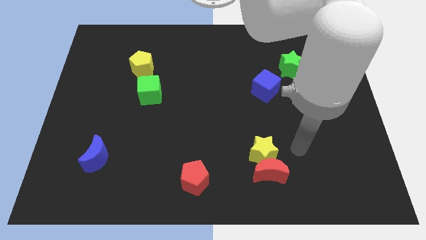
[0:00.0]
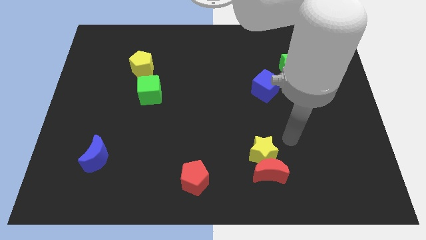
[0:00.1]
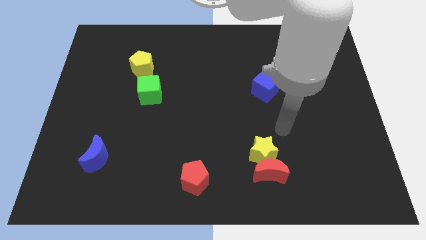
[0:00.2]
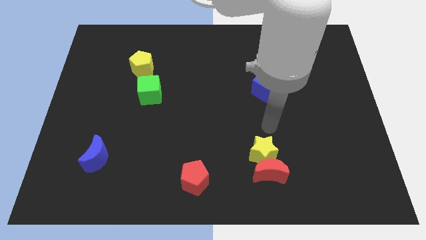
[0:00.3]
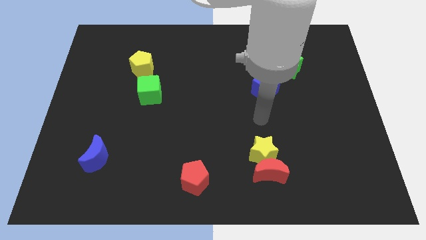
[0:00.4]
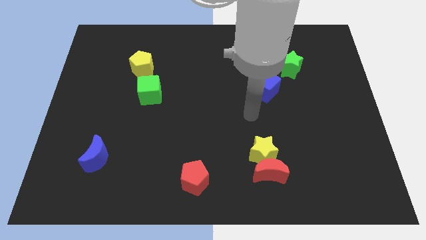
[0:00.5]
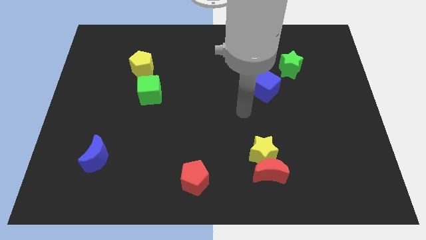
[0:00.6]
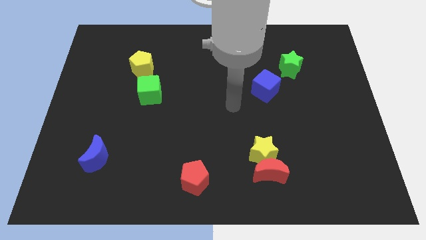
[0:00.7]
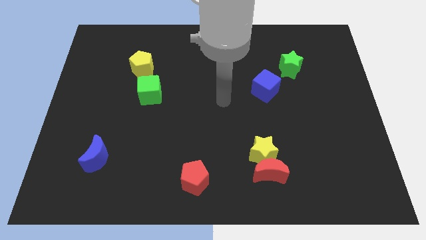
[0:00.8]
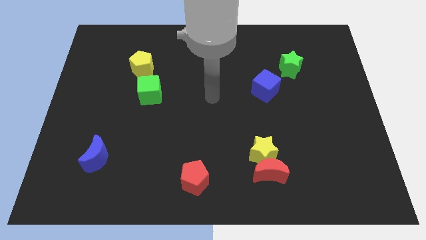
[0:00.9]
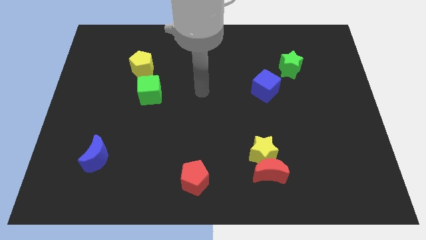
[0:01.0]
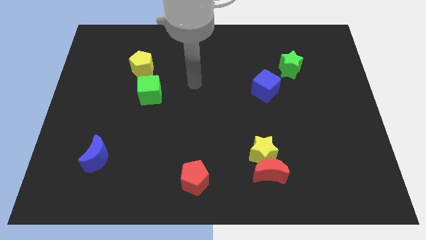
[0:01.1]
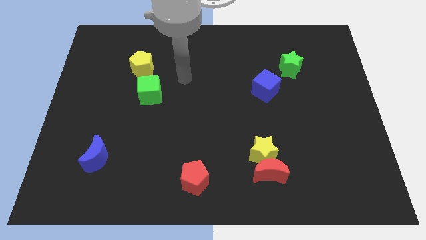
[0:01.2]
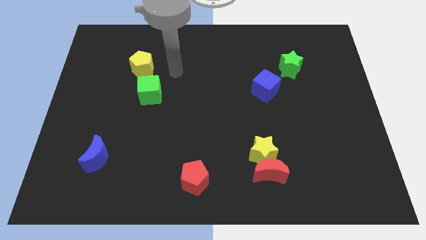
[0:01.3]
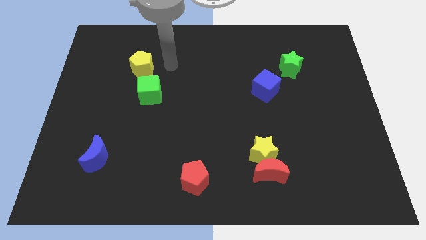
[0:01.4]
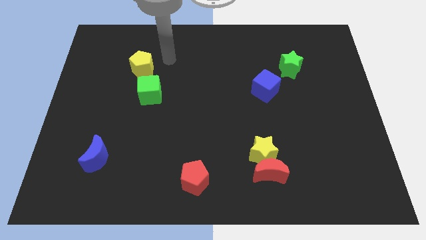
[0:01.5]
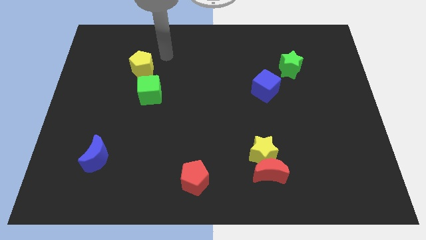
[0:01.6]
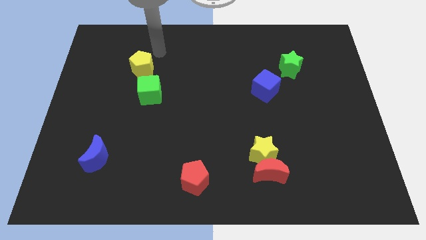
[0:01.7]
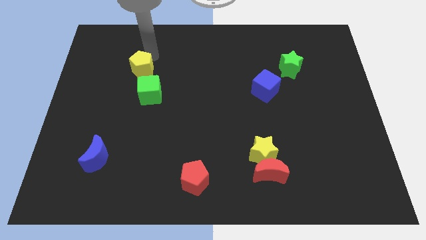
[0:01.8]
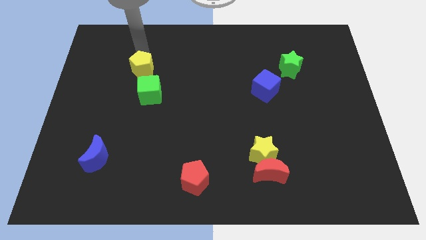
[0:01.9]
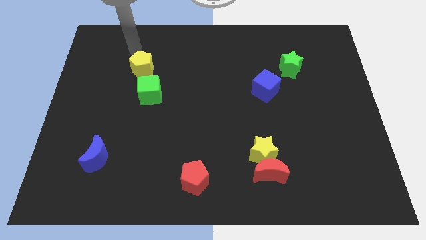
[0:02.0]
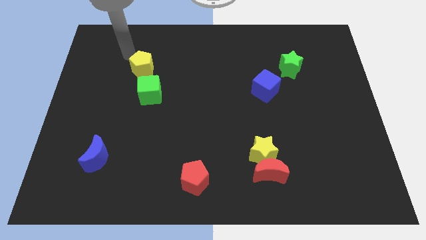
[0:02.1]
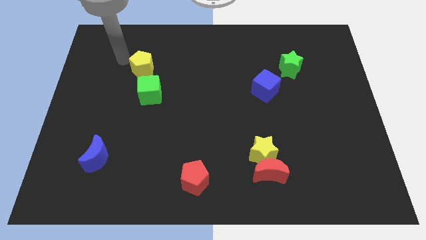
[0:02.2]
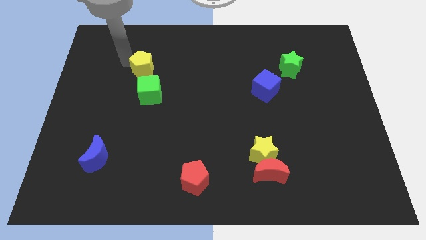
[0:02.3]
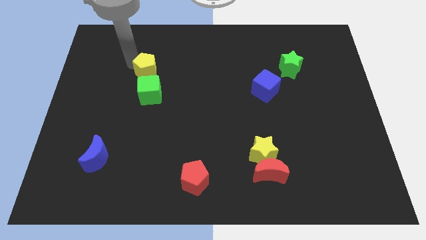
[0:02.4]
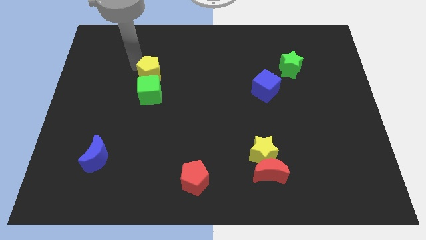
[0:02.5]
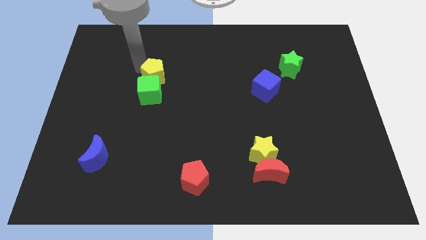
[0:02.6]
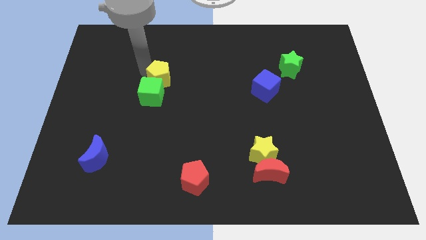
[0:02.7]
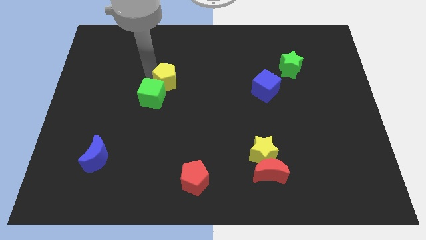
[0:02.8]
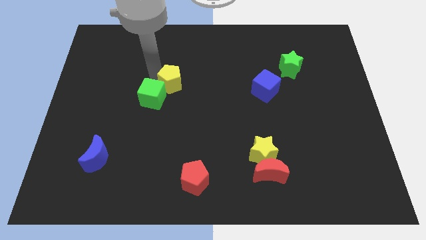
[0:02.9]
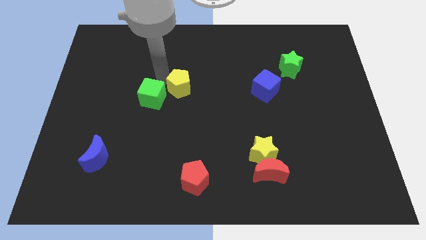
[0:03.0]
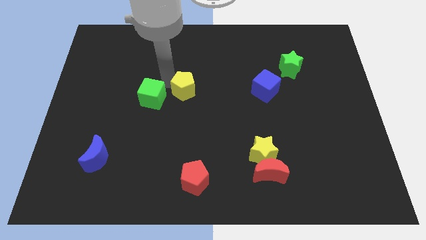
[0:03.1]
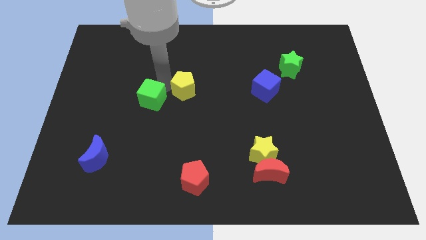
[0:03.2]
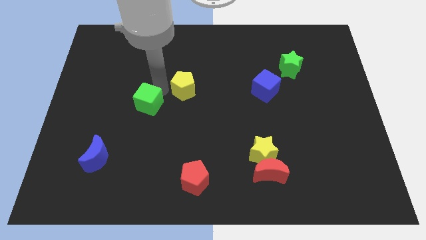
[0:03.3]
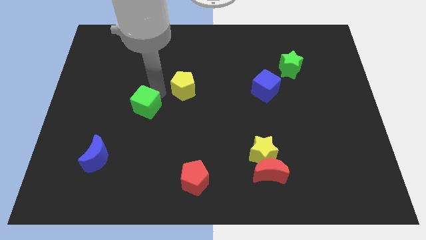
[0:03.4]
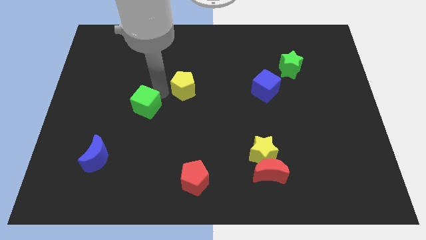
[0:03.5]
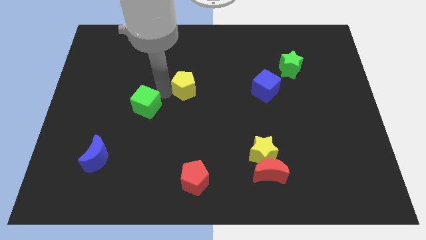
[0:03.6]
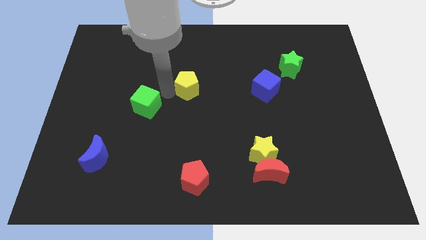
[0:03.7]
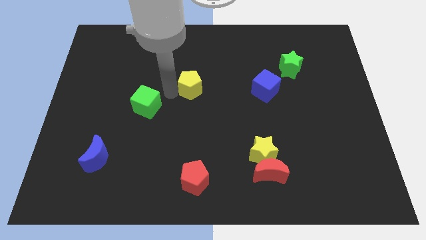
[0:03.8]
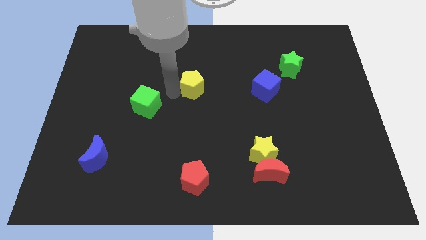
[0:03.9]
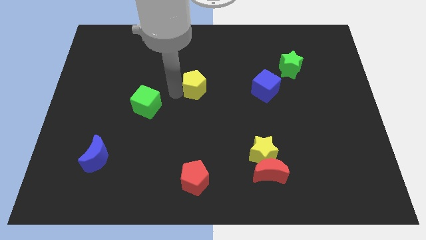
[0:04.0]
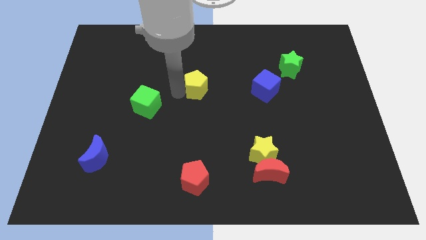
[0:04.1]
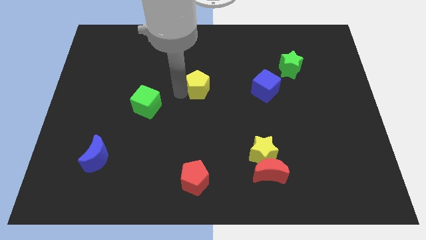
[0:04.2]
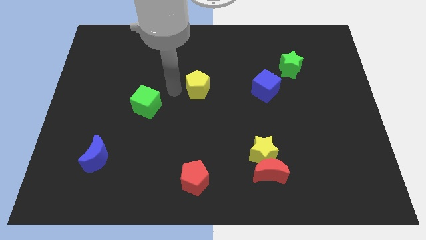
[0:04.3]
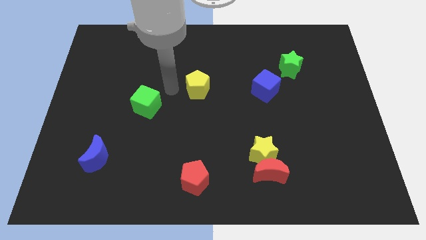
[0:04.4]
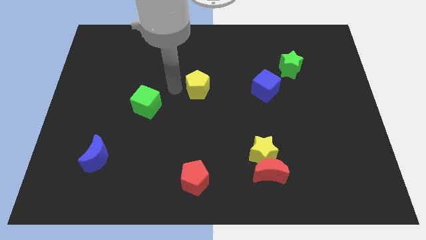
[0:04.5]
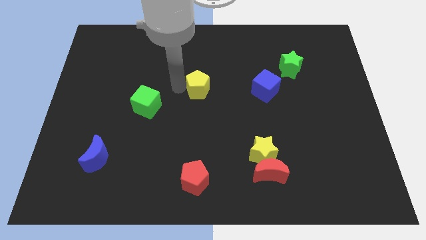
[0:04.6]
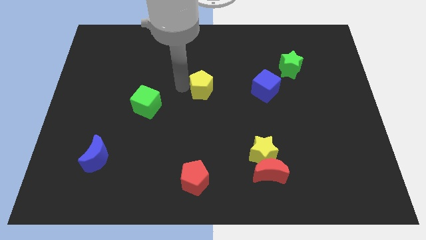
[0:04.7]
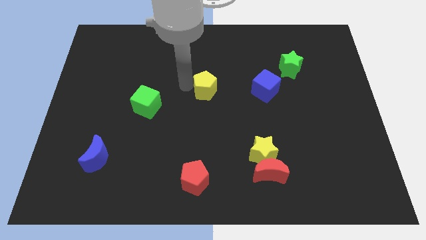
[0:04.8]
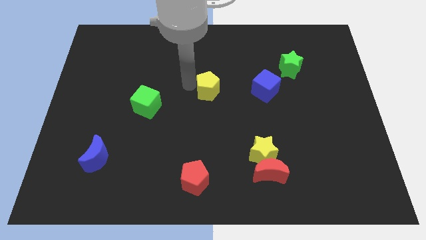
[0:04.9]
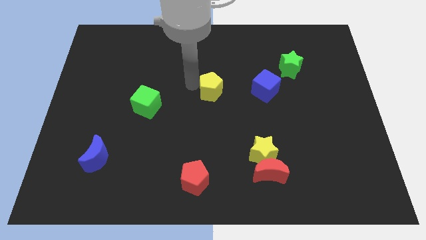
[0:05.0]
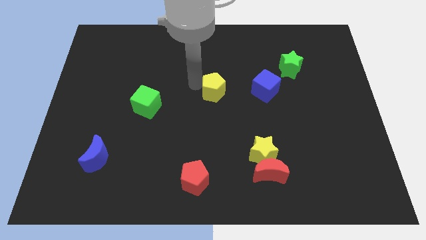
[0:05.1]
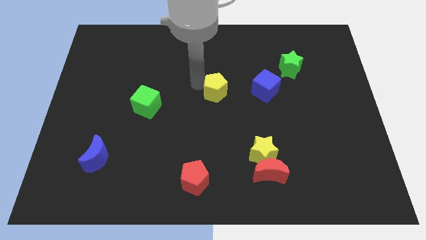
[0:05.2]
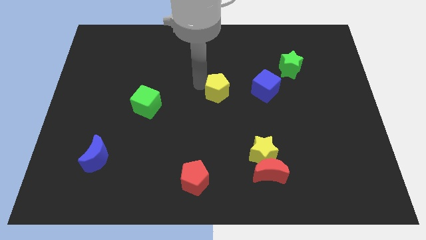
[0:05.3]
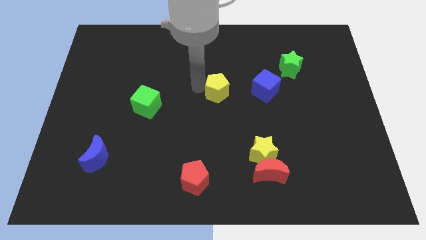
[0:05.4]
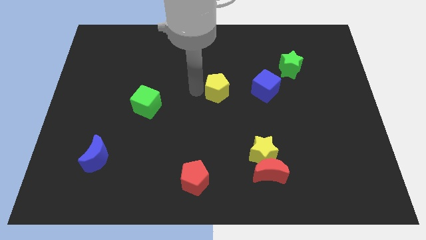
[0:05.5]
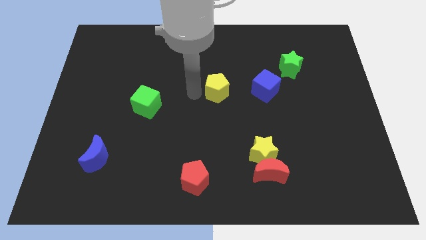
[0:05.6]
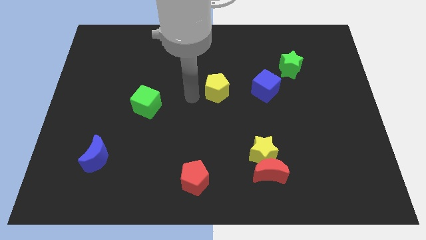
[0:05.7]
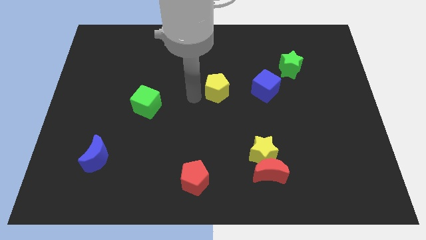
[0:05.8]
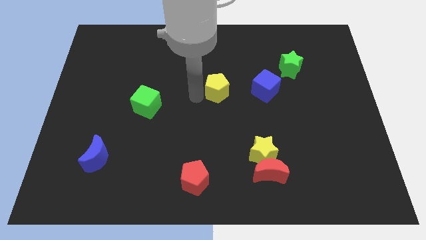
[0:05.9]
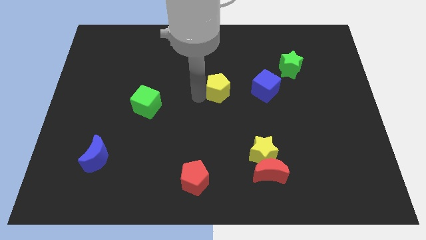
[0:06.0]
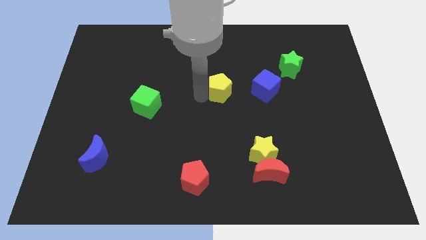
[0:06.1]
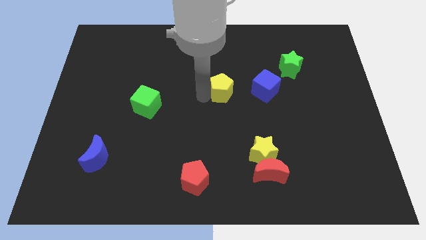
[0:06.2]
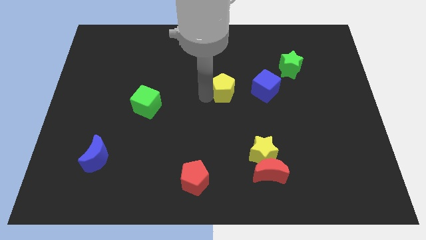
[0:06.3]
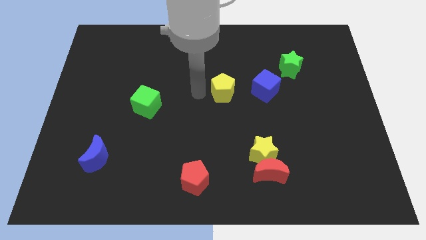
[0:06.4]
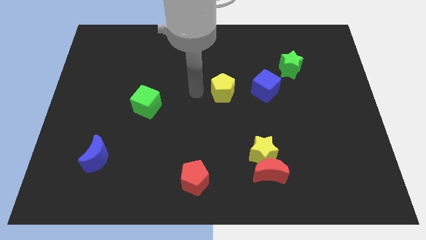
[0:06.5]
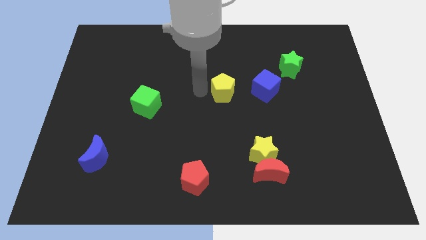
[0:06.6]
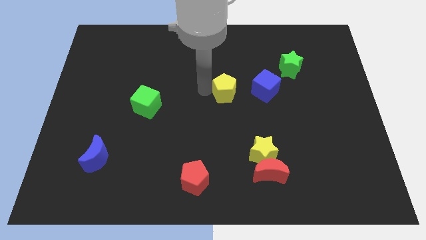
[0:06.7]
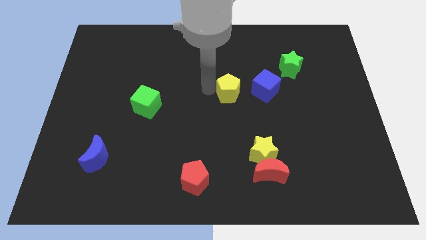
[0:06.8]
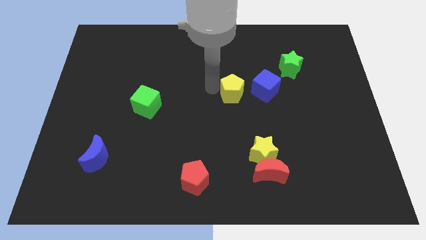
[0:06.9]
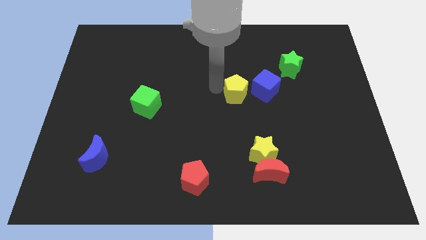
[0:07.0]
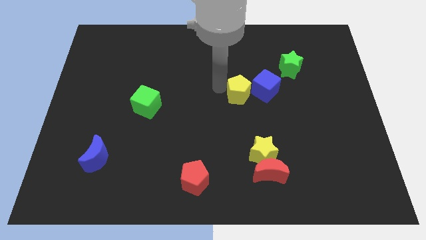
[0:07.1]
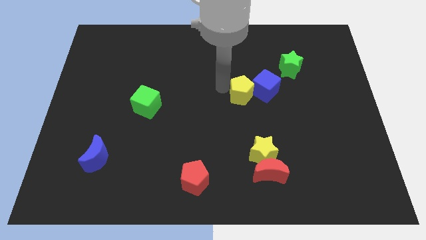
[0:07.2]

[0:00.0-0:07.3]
slide the yellow pentagon to the blue cube
